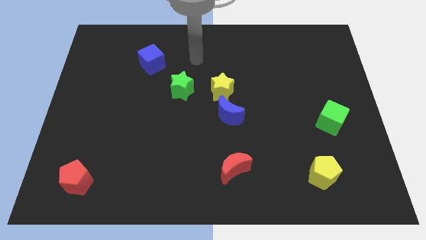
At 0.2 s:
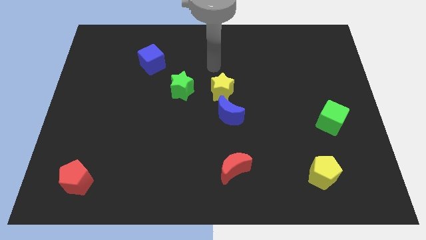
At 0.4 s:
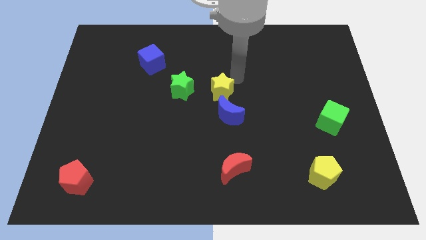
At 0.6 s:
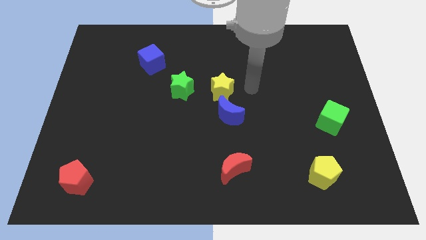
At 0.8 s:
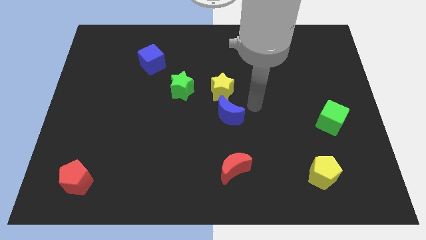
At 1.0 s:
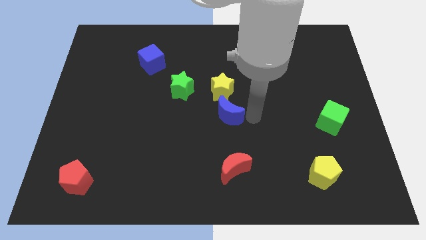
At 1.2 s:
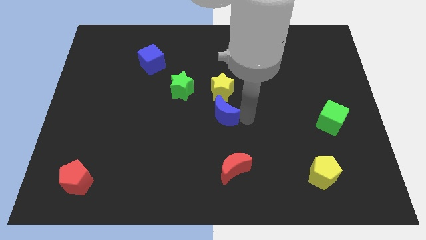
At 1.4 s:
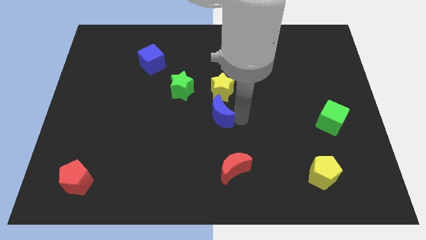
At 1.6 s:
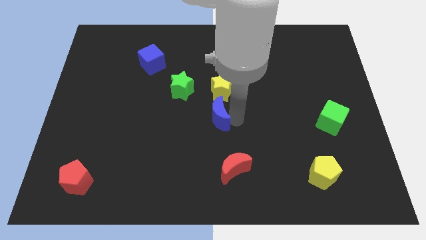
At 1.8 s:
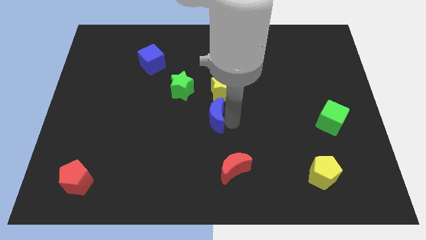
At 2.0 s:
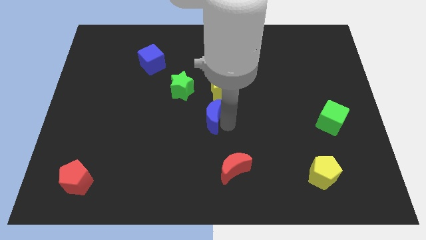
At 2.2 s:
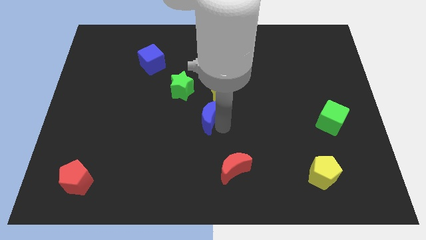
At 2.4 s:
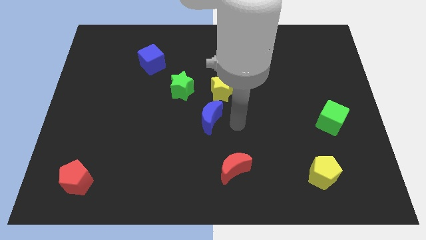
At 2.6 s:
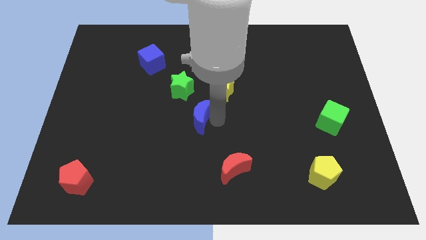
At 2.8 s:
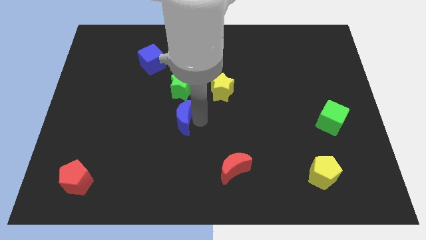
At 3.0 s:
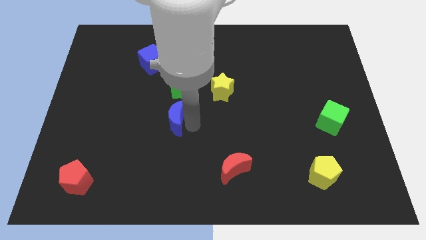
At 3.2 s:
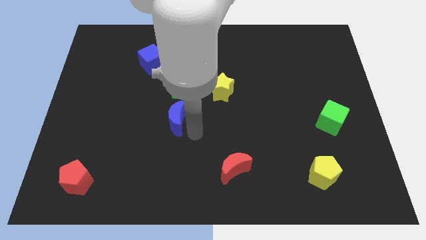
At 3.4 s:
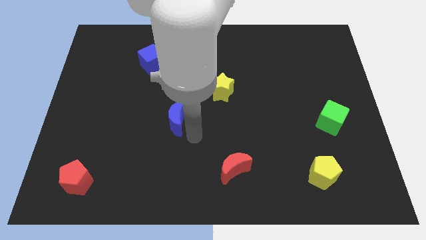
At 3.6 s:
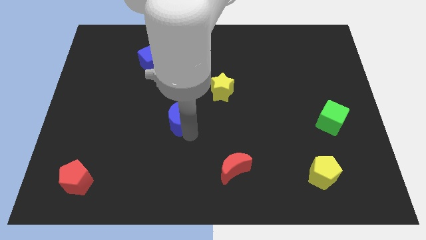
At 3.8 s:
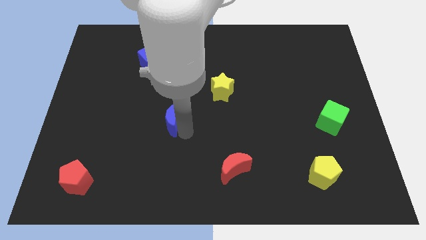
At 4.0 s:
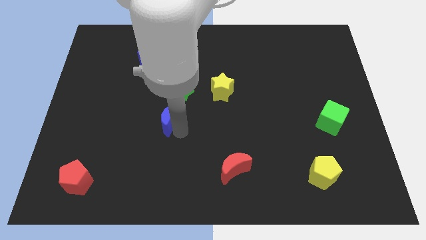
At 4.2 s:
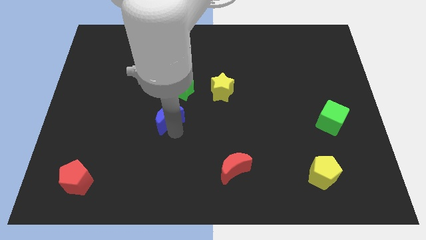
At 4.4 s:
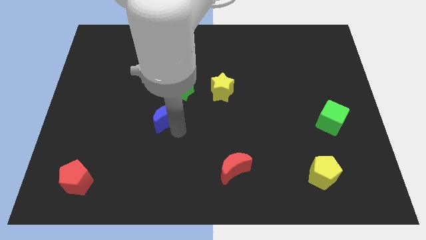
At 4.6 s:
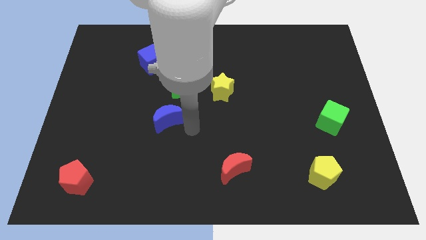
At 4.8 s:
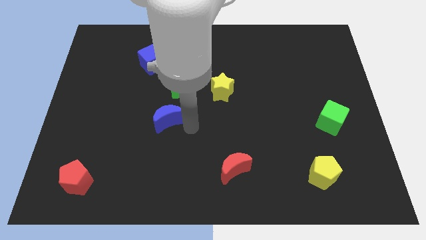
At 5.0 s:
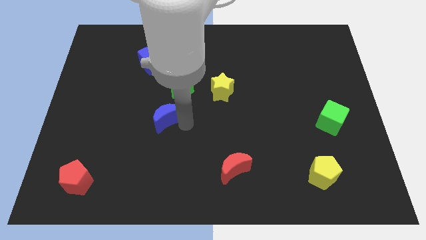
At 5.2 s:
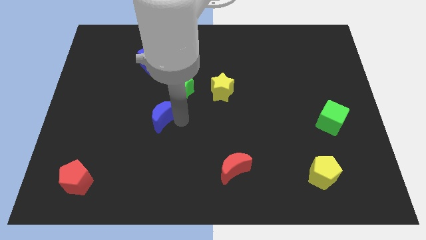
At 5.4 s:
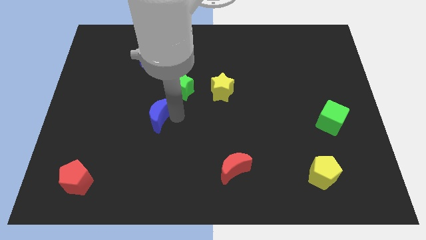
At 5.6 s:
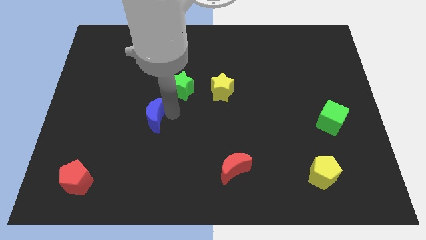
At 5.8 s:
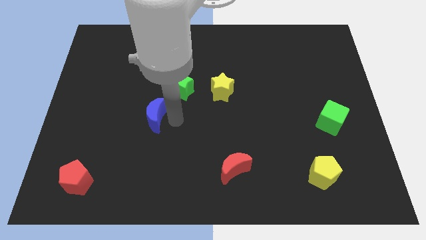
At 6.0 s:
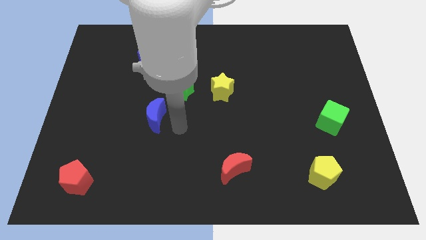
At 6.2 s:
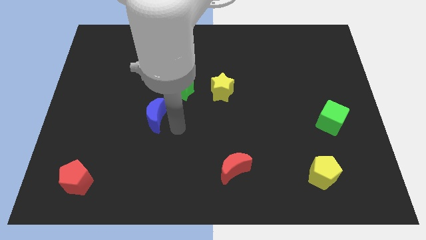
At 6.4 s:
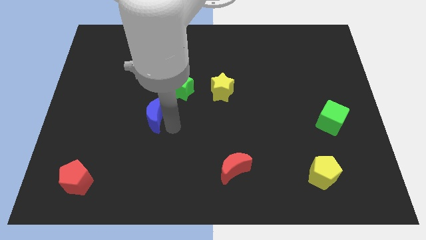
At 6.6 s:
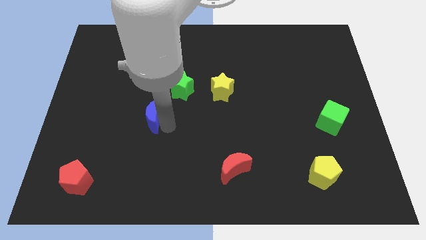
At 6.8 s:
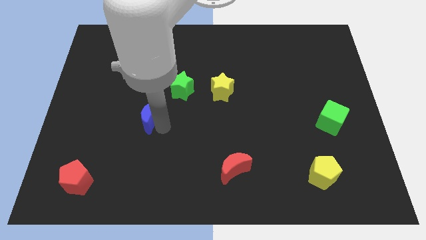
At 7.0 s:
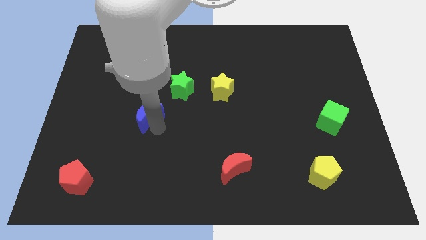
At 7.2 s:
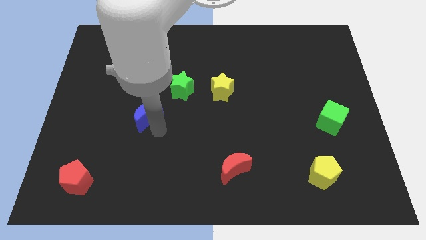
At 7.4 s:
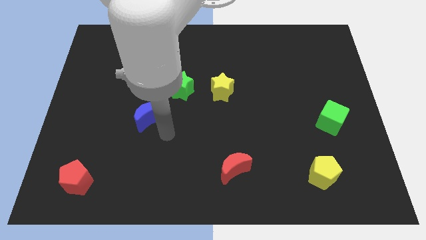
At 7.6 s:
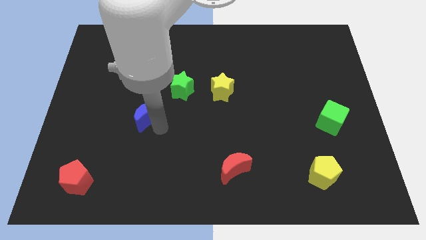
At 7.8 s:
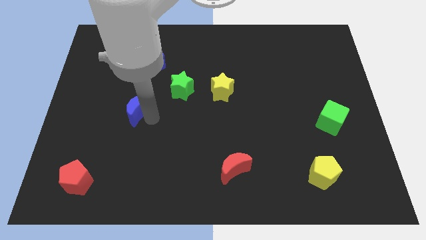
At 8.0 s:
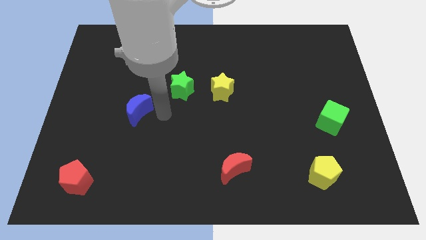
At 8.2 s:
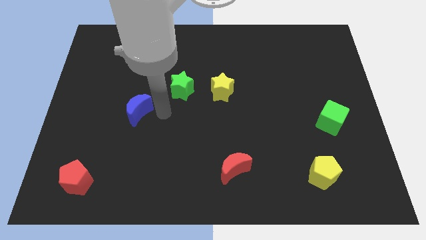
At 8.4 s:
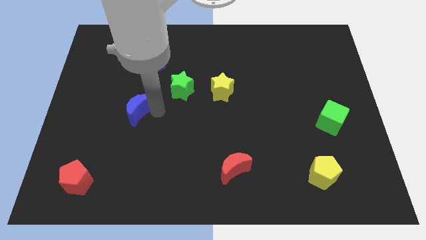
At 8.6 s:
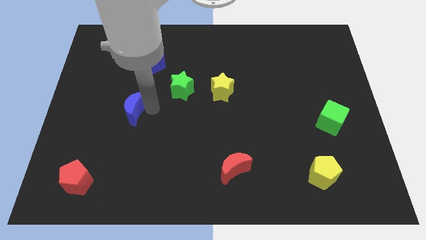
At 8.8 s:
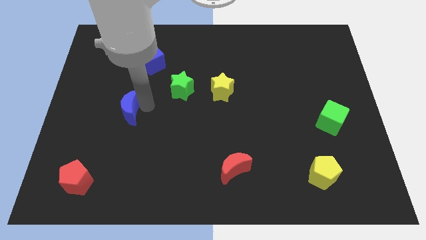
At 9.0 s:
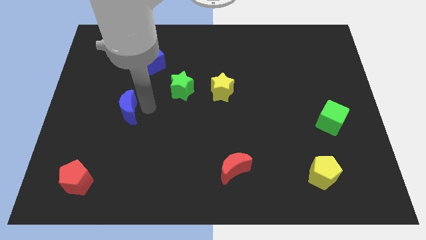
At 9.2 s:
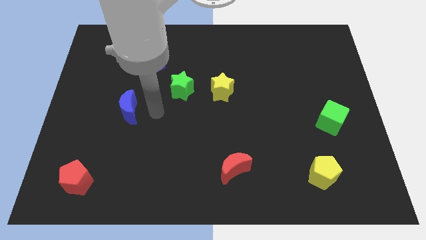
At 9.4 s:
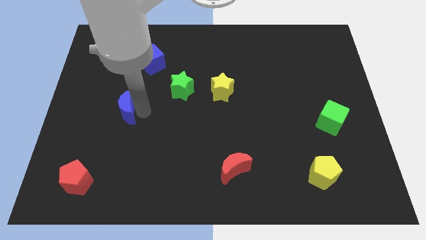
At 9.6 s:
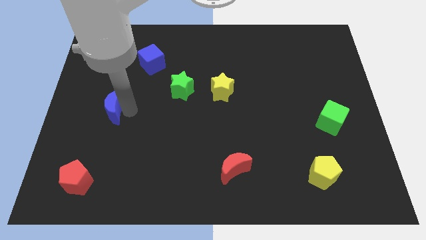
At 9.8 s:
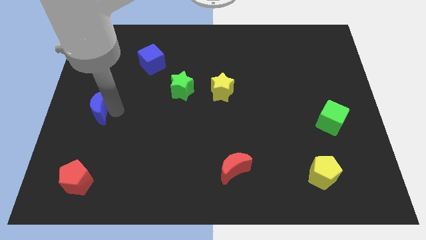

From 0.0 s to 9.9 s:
move the blue moon to the center left

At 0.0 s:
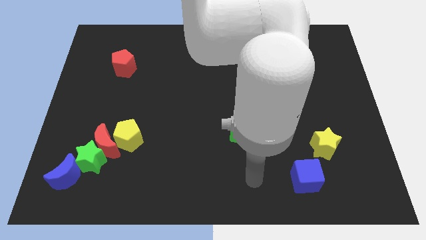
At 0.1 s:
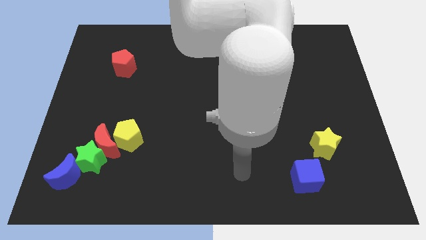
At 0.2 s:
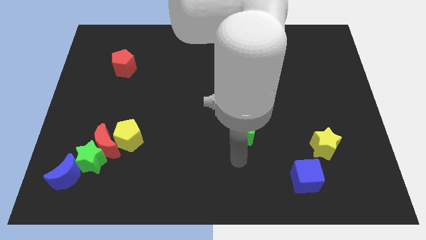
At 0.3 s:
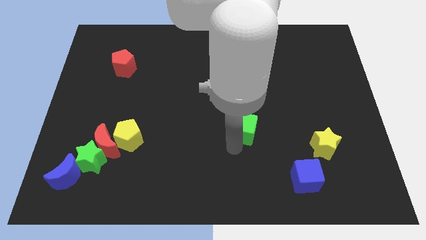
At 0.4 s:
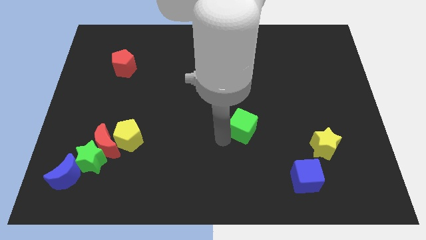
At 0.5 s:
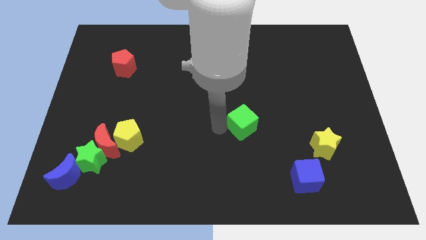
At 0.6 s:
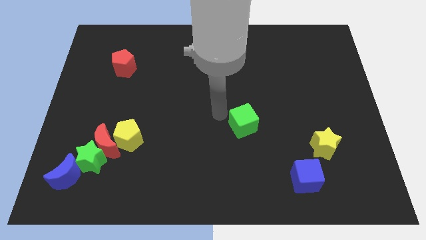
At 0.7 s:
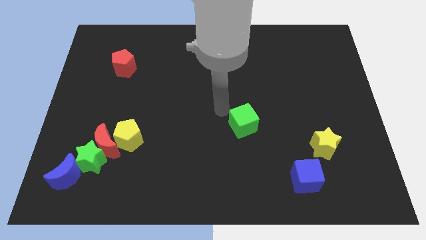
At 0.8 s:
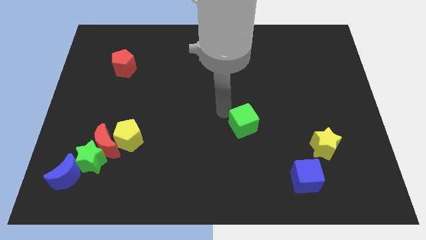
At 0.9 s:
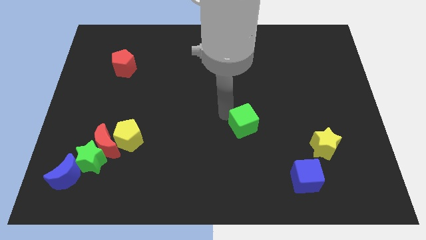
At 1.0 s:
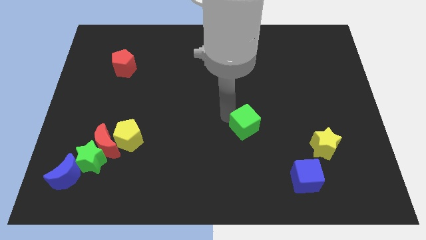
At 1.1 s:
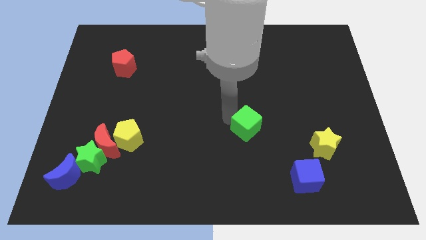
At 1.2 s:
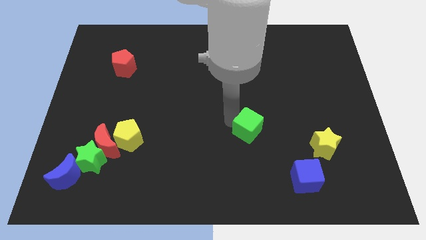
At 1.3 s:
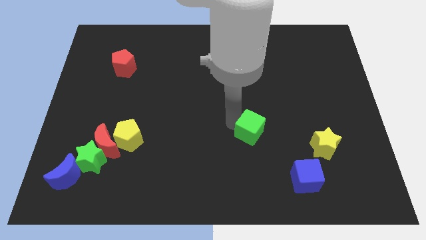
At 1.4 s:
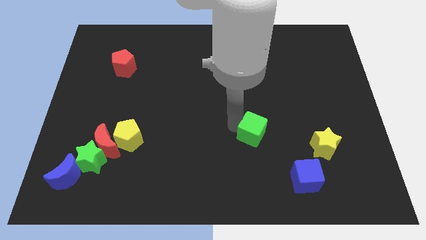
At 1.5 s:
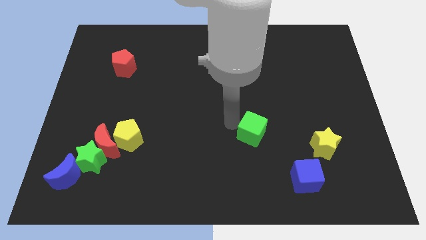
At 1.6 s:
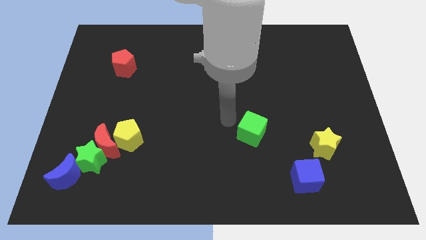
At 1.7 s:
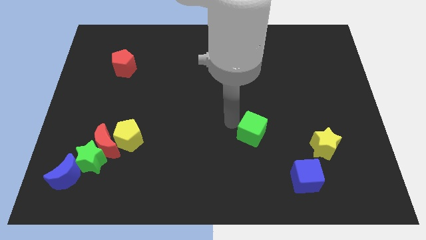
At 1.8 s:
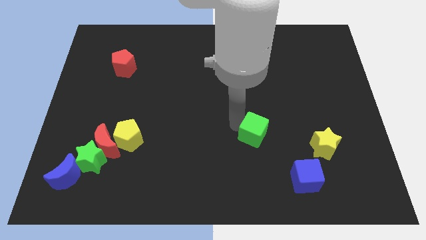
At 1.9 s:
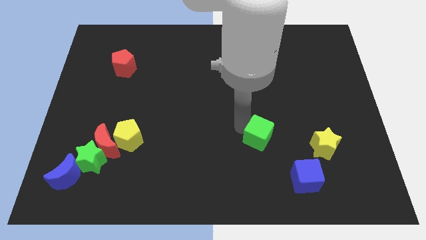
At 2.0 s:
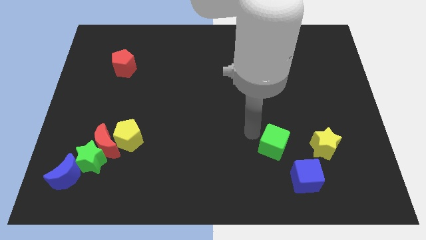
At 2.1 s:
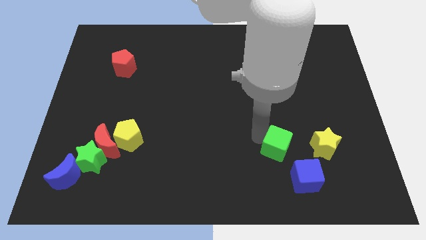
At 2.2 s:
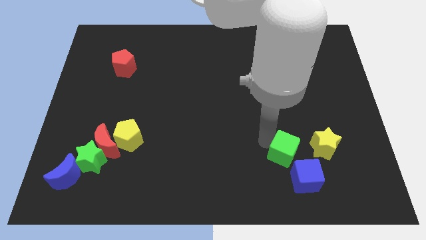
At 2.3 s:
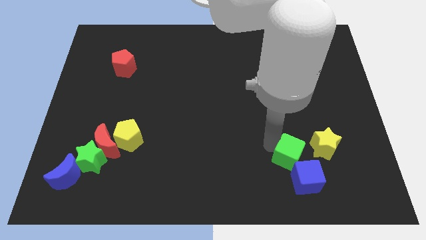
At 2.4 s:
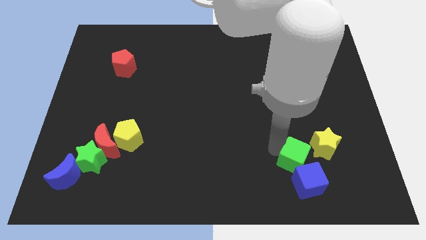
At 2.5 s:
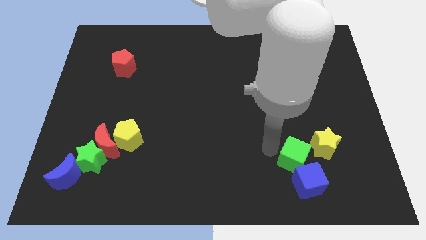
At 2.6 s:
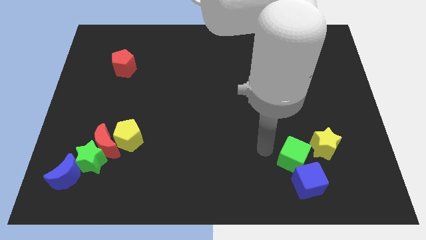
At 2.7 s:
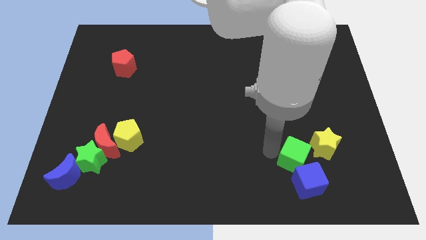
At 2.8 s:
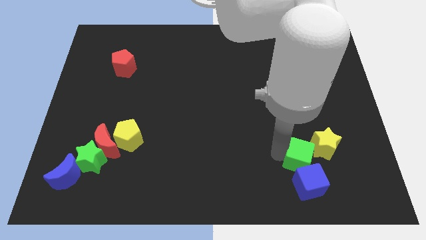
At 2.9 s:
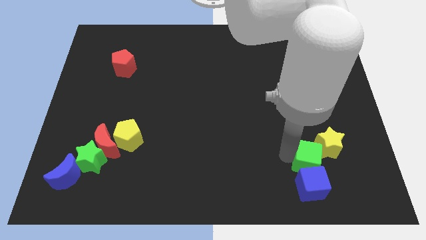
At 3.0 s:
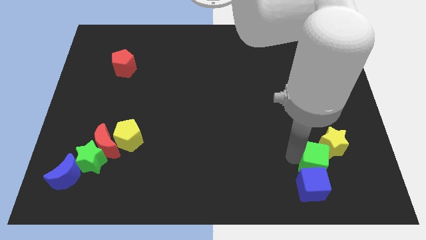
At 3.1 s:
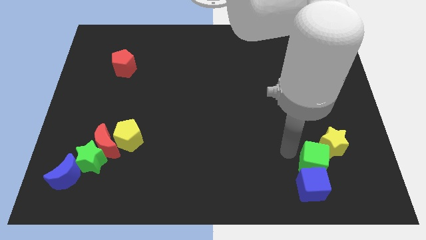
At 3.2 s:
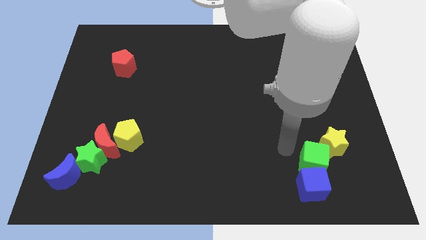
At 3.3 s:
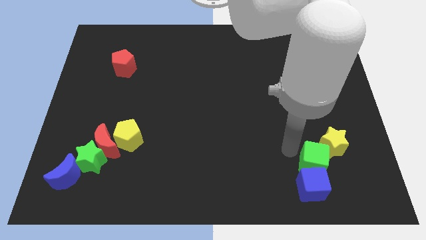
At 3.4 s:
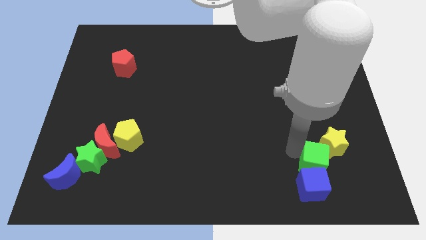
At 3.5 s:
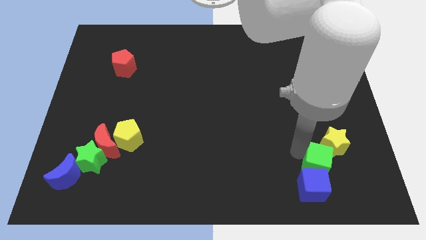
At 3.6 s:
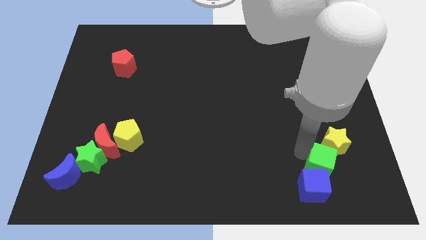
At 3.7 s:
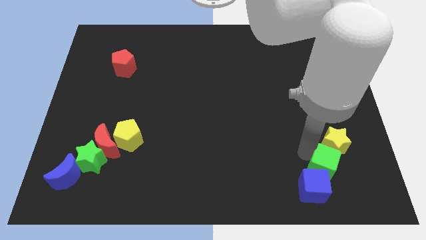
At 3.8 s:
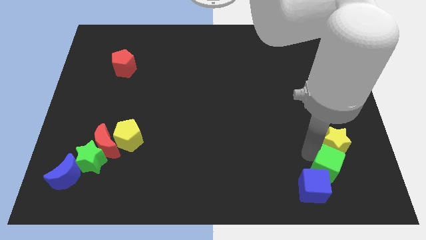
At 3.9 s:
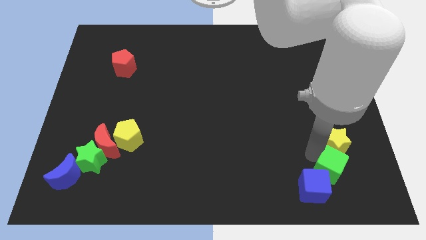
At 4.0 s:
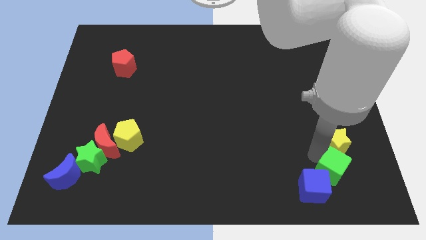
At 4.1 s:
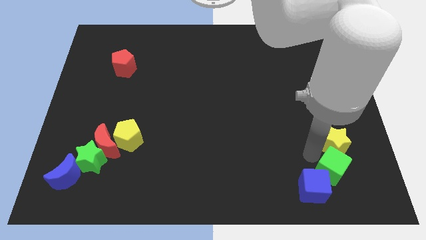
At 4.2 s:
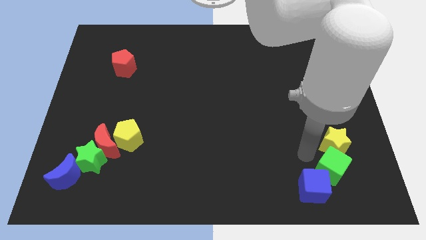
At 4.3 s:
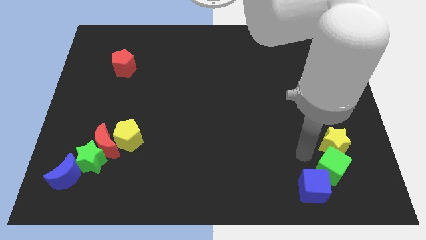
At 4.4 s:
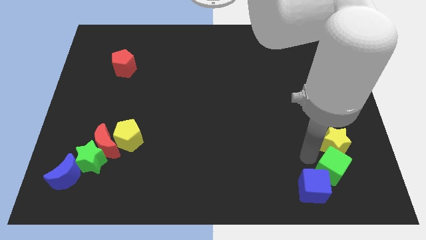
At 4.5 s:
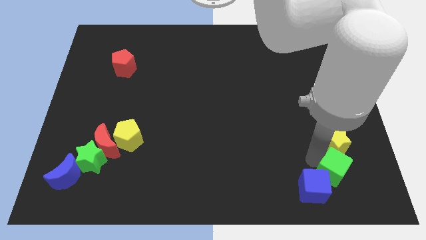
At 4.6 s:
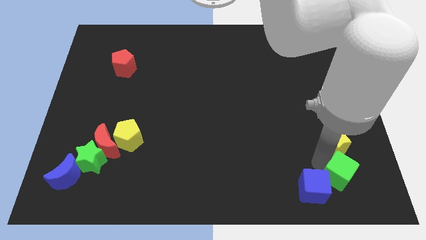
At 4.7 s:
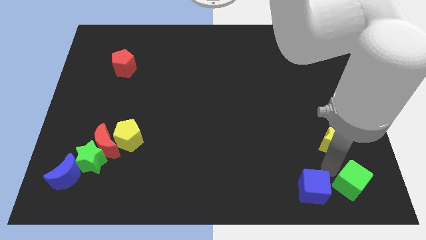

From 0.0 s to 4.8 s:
slide the green cube to the bottom right of the board
